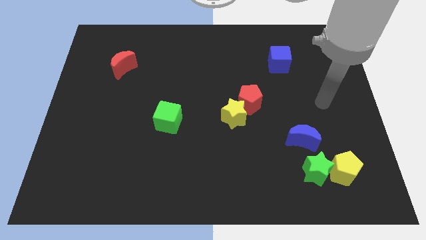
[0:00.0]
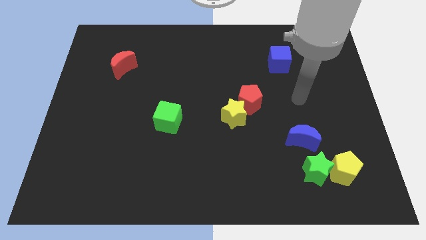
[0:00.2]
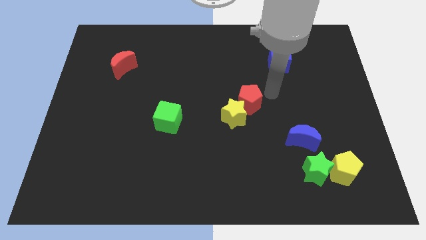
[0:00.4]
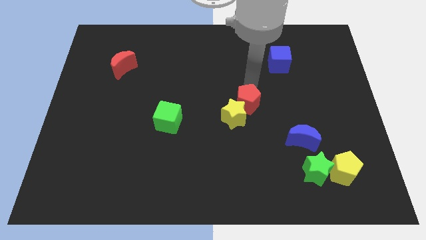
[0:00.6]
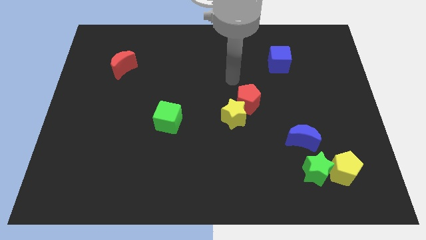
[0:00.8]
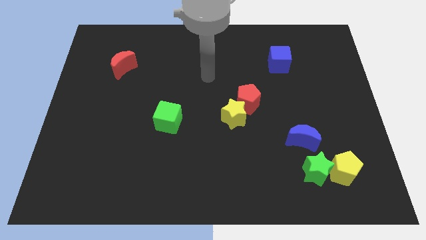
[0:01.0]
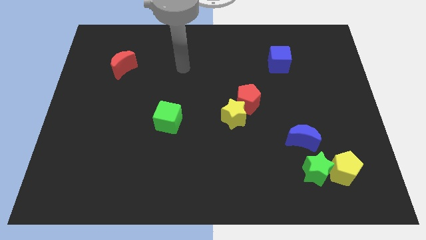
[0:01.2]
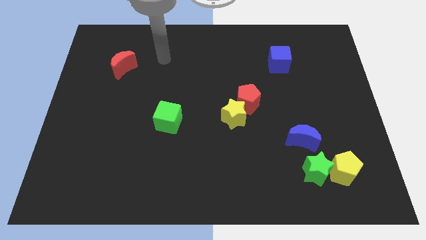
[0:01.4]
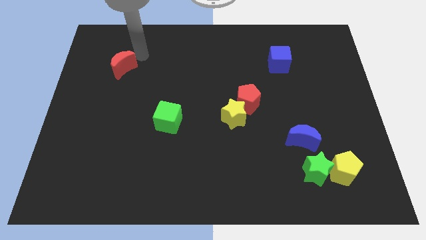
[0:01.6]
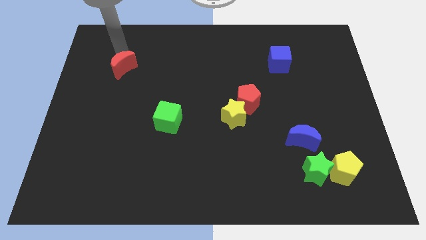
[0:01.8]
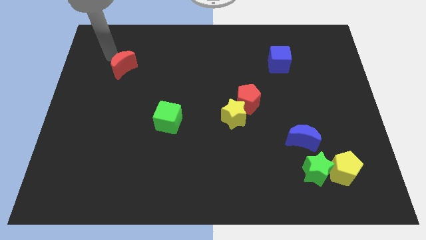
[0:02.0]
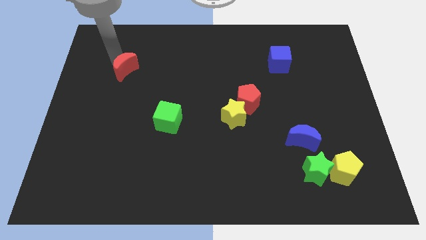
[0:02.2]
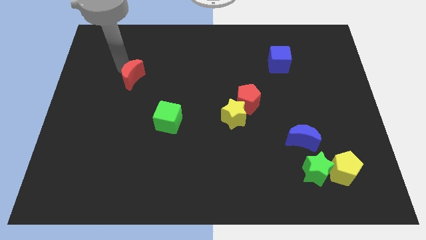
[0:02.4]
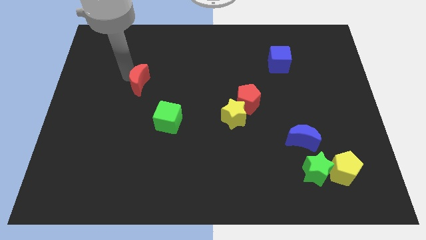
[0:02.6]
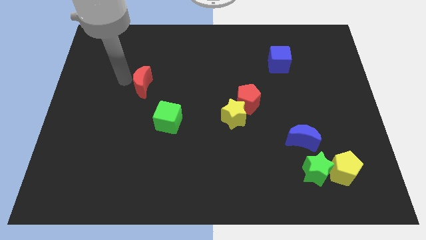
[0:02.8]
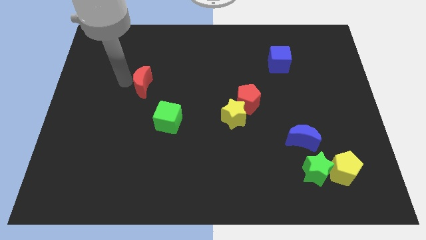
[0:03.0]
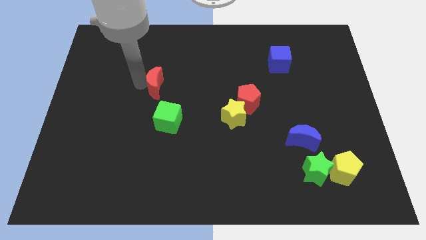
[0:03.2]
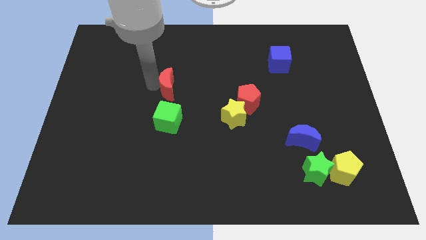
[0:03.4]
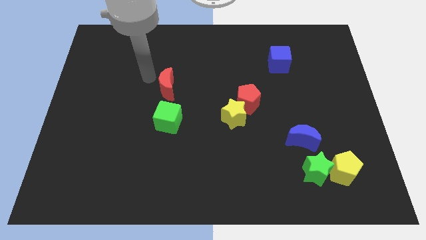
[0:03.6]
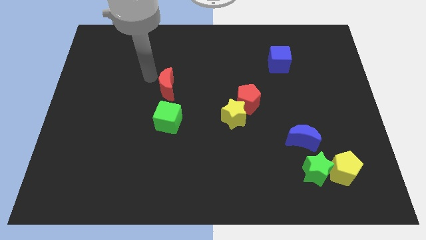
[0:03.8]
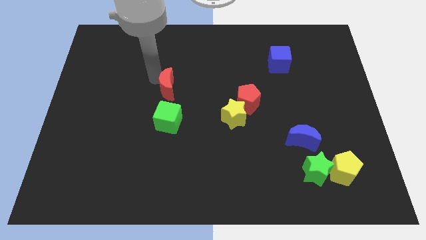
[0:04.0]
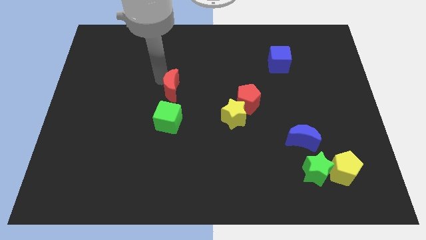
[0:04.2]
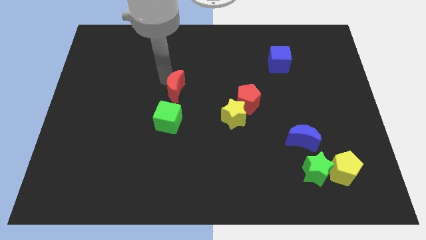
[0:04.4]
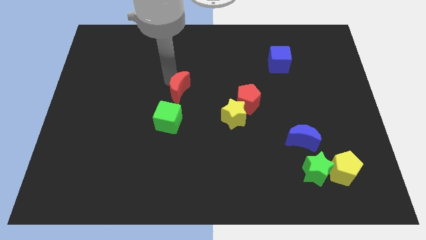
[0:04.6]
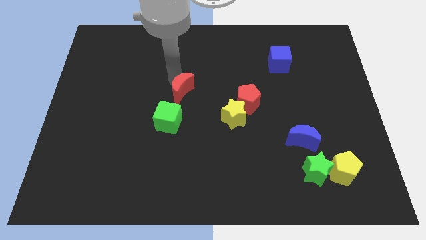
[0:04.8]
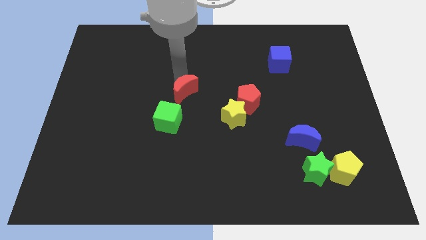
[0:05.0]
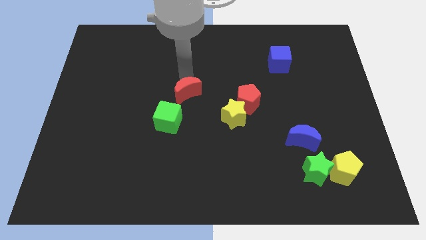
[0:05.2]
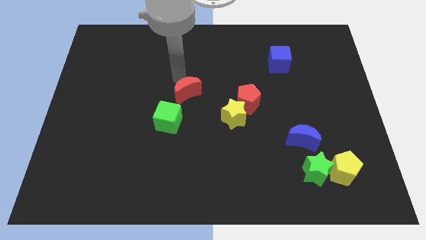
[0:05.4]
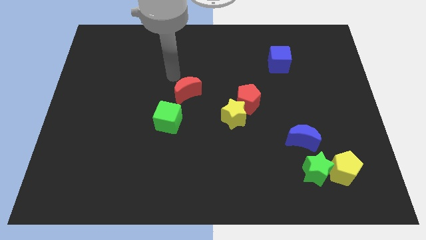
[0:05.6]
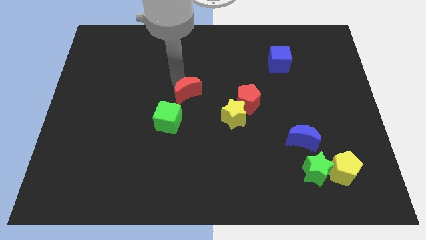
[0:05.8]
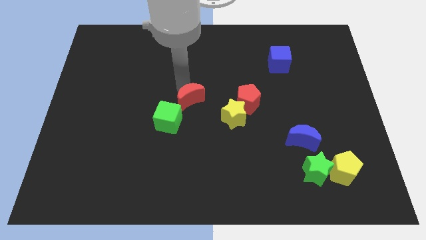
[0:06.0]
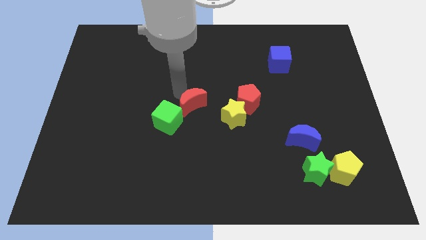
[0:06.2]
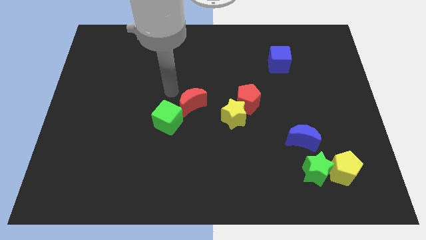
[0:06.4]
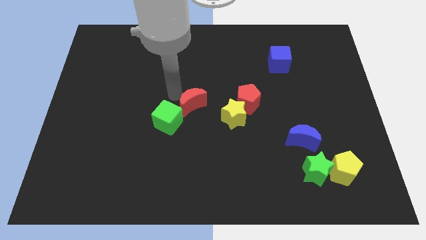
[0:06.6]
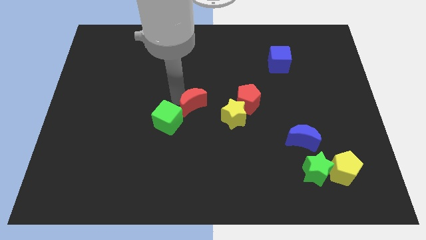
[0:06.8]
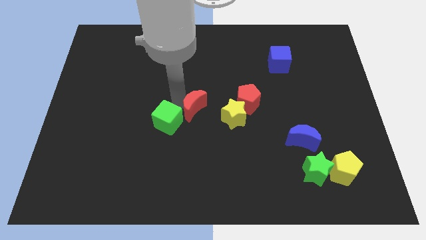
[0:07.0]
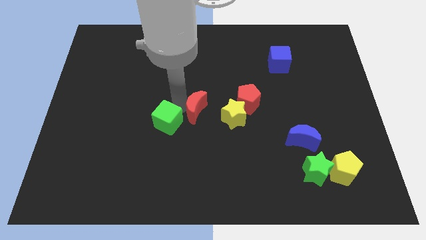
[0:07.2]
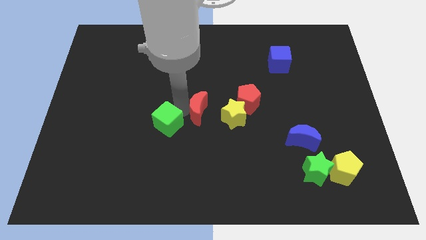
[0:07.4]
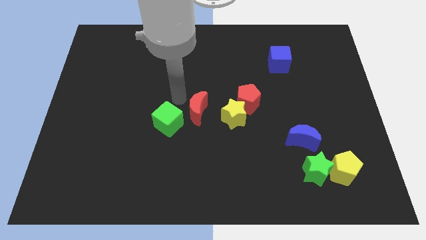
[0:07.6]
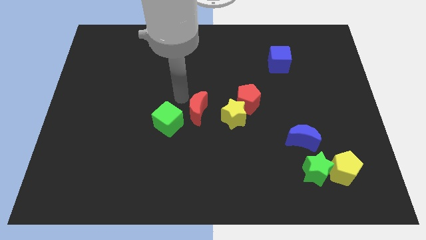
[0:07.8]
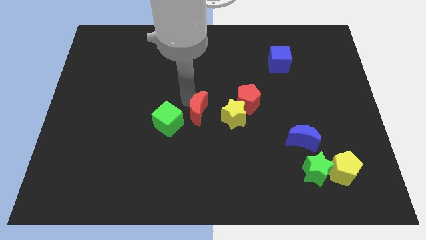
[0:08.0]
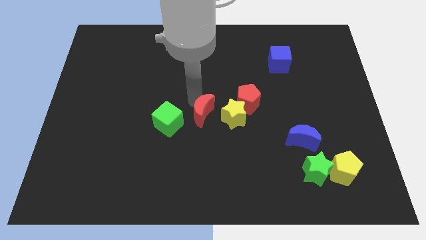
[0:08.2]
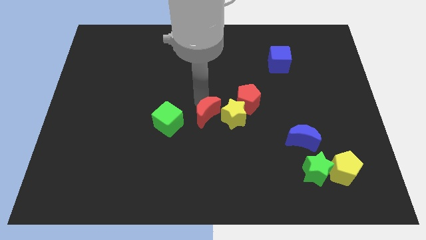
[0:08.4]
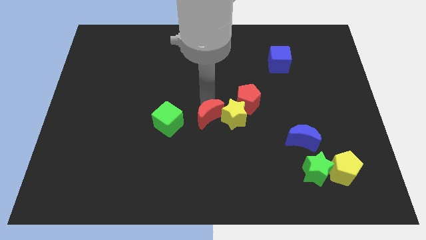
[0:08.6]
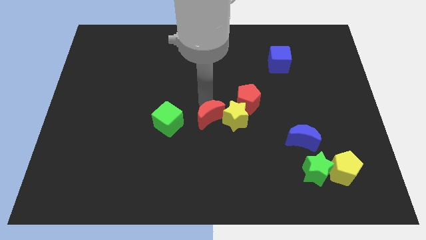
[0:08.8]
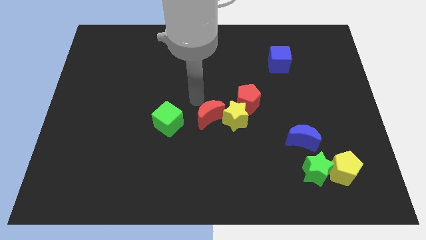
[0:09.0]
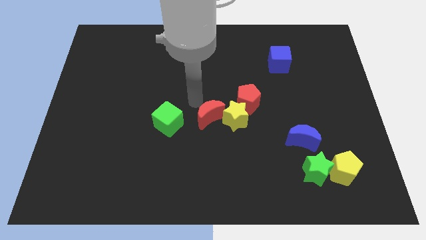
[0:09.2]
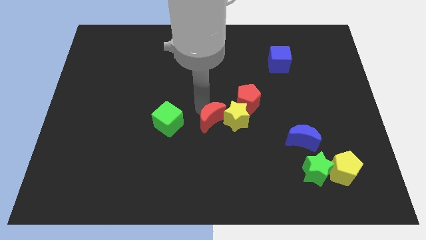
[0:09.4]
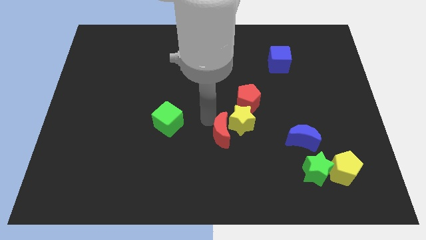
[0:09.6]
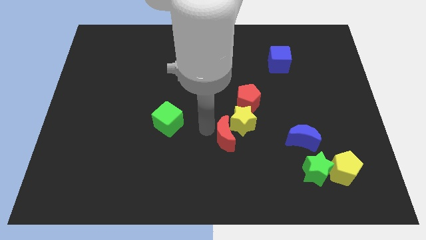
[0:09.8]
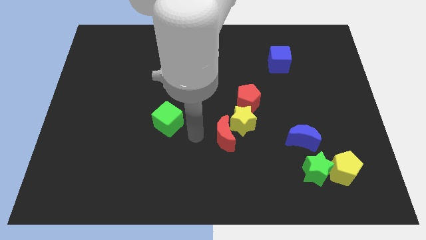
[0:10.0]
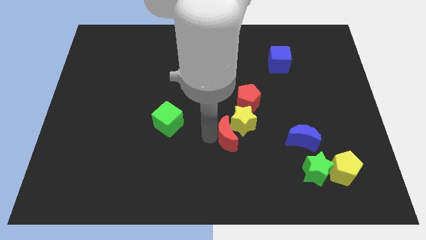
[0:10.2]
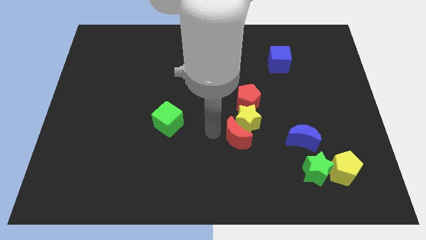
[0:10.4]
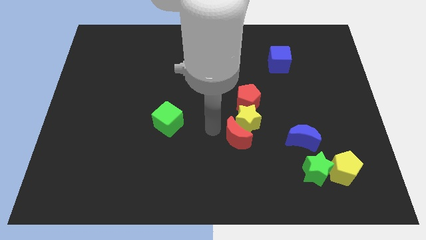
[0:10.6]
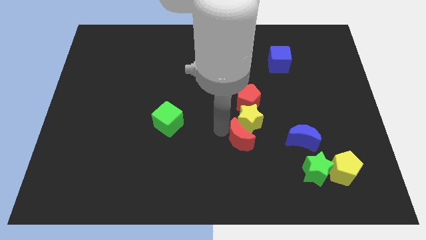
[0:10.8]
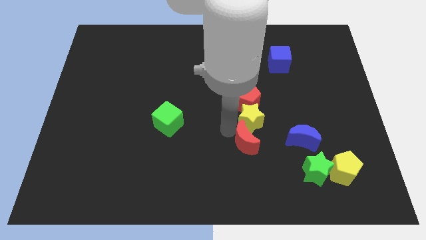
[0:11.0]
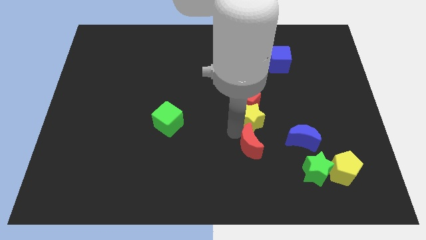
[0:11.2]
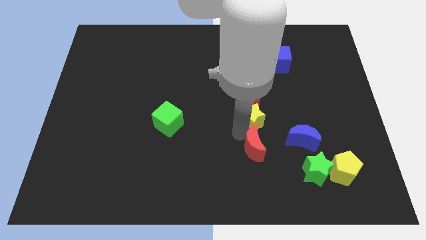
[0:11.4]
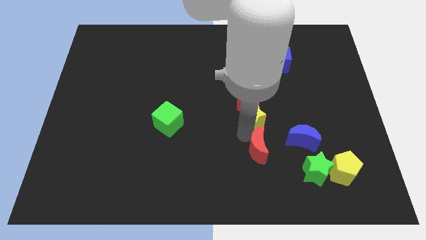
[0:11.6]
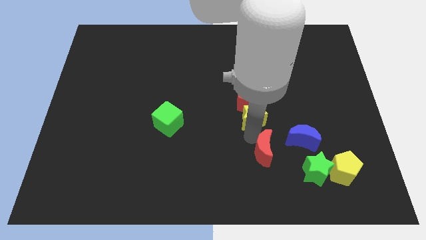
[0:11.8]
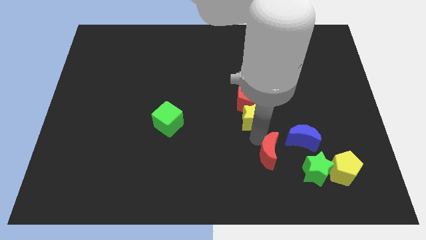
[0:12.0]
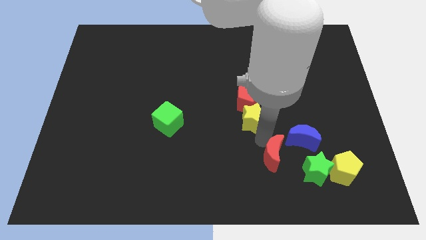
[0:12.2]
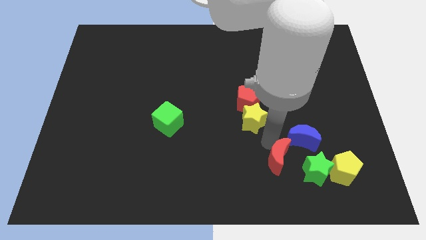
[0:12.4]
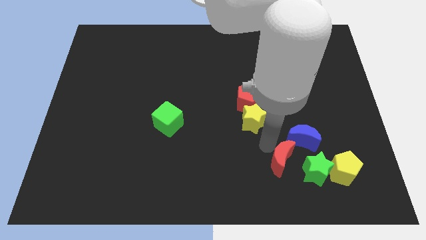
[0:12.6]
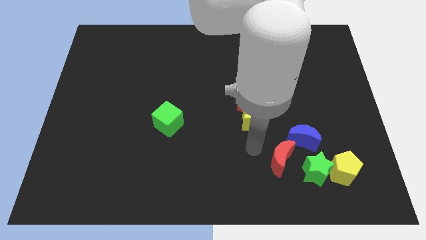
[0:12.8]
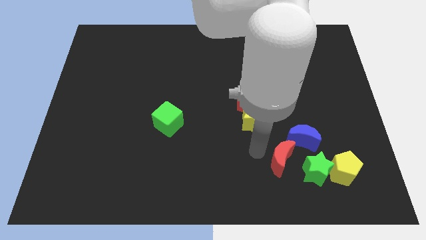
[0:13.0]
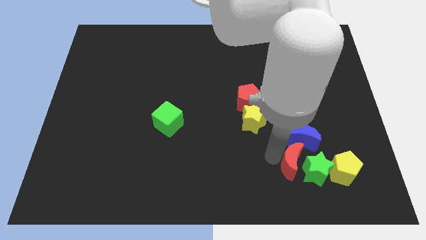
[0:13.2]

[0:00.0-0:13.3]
push the red moon close to the green star

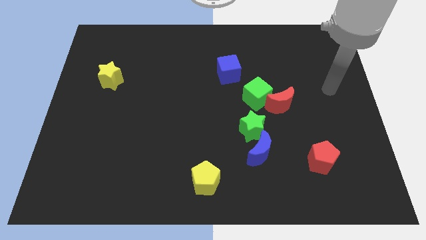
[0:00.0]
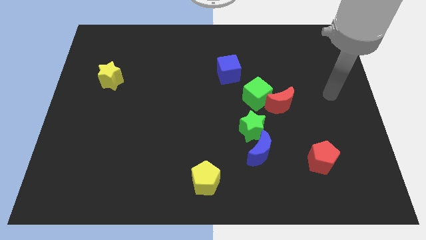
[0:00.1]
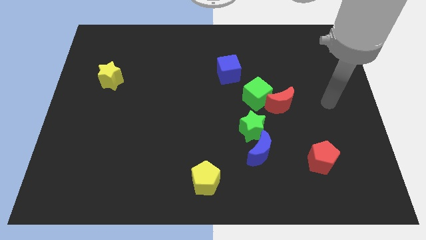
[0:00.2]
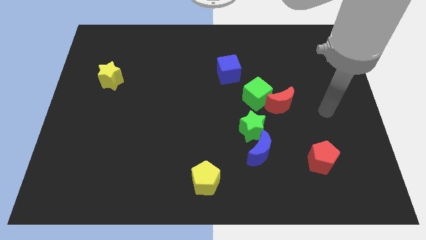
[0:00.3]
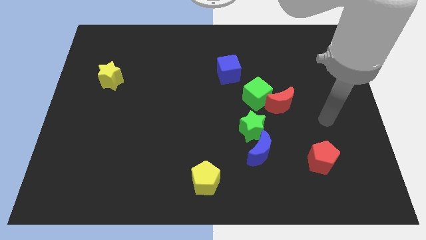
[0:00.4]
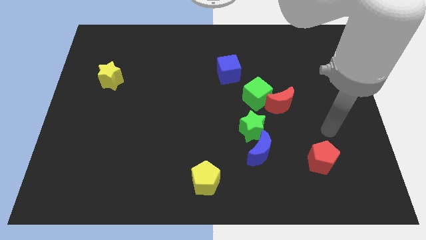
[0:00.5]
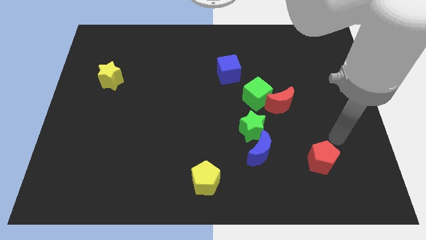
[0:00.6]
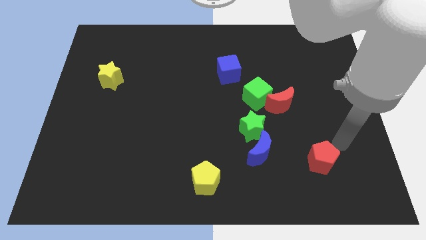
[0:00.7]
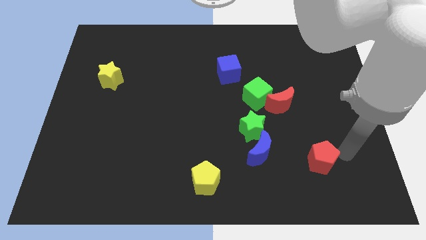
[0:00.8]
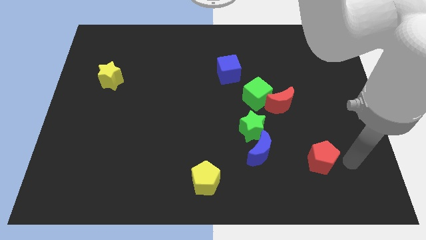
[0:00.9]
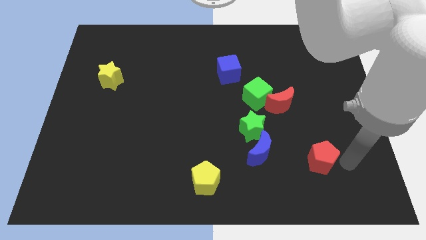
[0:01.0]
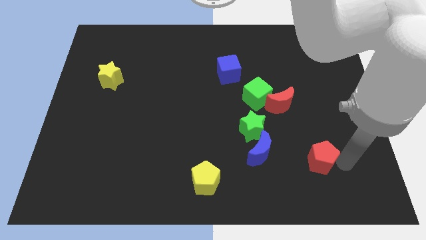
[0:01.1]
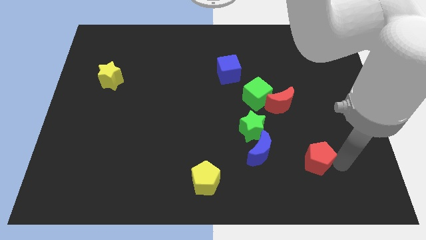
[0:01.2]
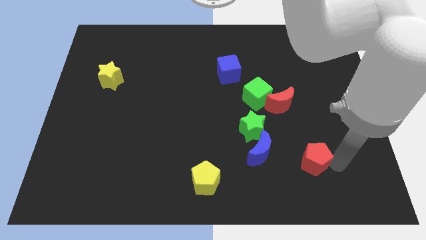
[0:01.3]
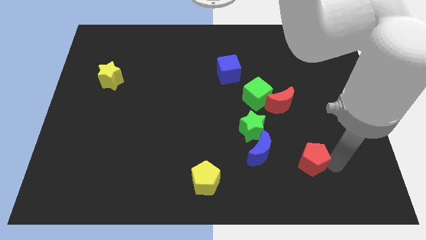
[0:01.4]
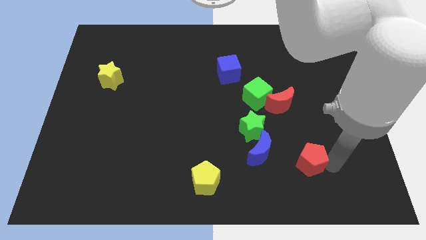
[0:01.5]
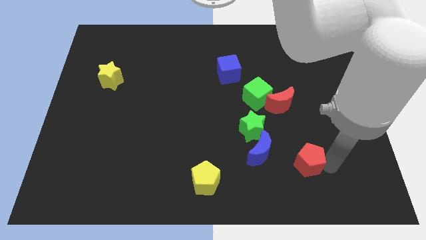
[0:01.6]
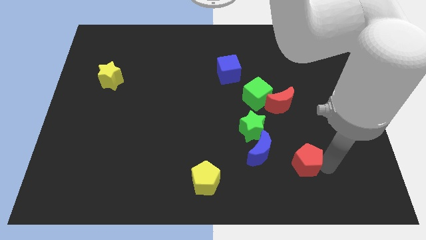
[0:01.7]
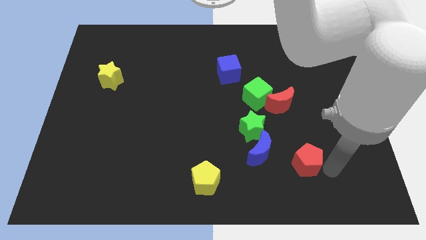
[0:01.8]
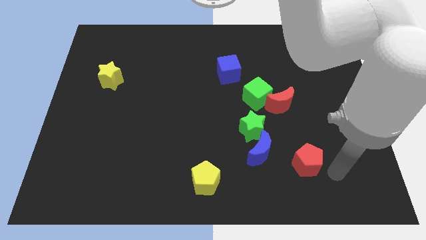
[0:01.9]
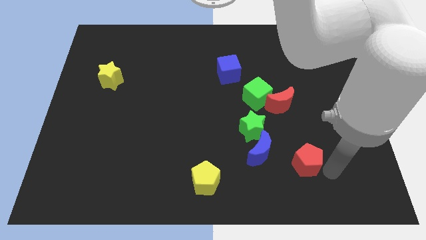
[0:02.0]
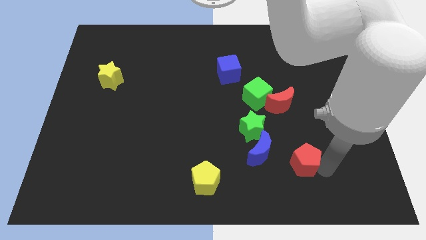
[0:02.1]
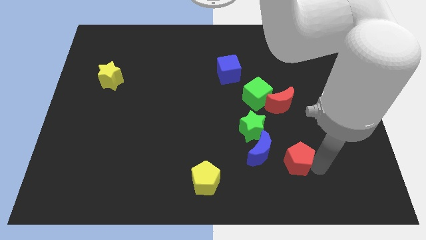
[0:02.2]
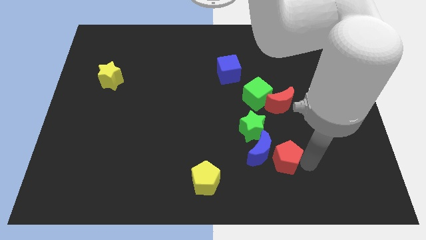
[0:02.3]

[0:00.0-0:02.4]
push the red pentagon towards the blue moon
